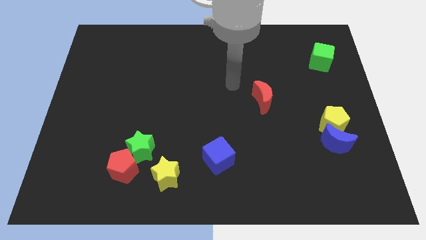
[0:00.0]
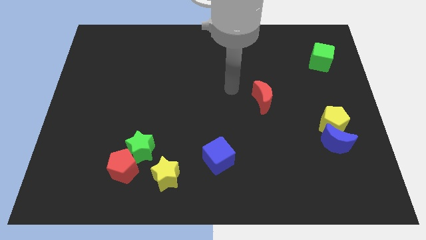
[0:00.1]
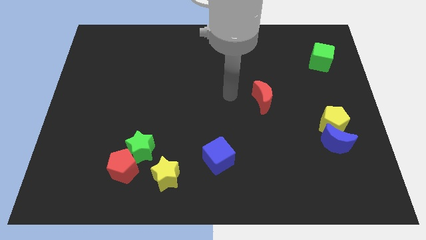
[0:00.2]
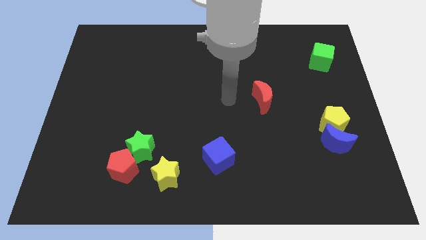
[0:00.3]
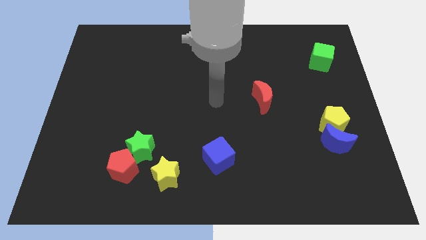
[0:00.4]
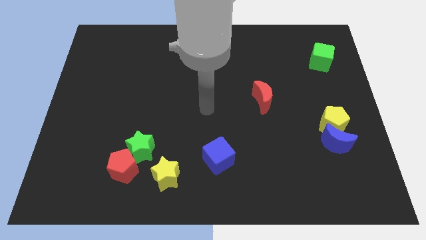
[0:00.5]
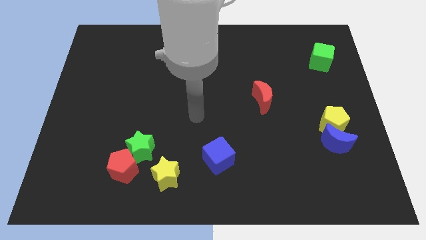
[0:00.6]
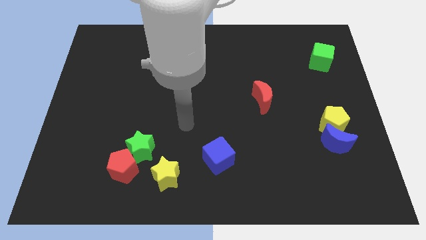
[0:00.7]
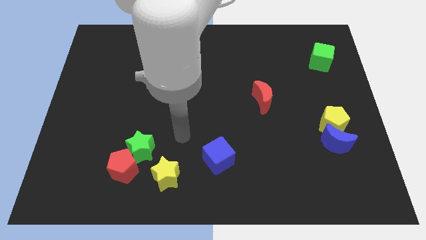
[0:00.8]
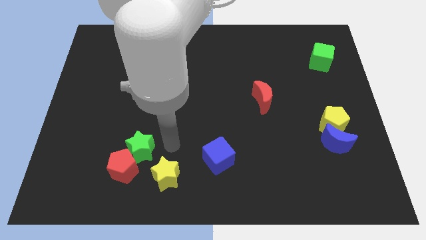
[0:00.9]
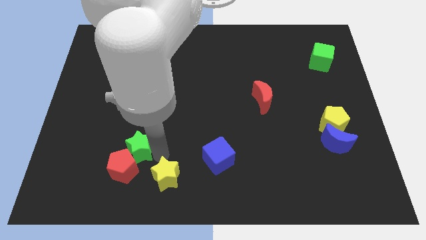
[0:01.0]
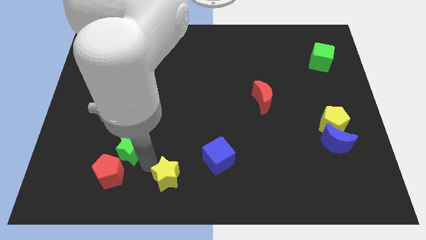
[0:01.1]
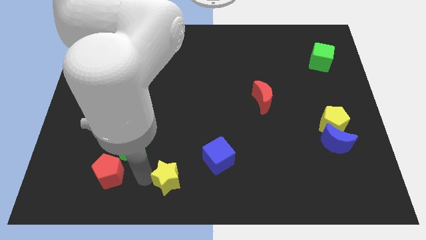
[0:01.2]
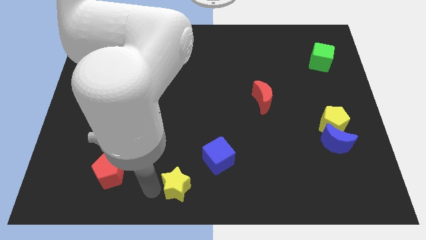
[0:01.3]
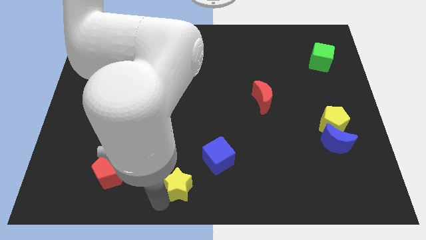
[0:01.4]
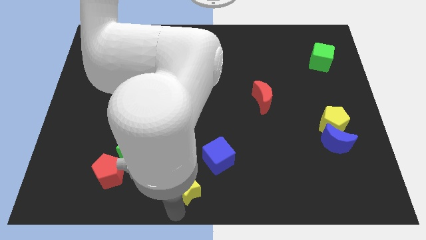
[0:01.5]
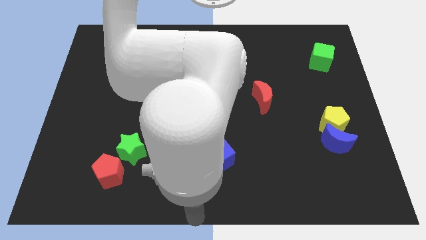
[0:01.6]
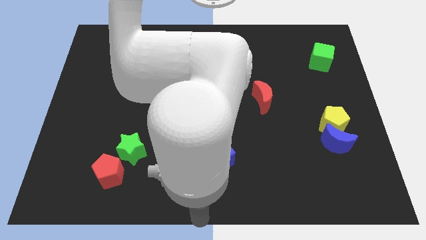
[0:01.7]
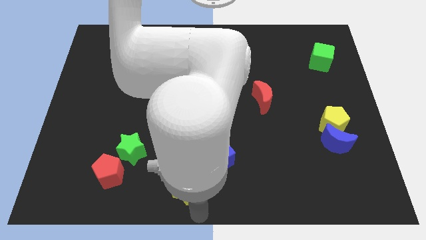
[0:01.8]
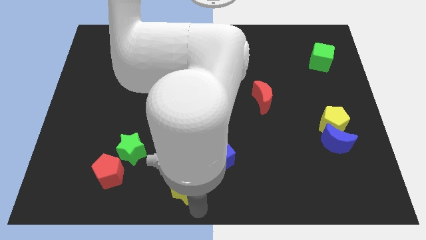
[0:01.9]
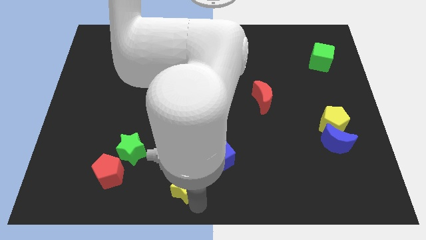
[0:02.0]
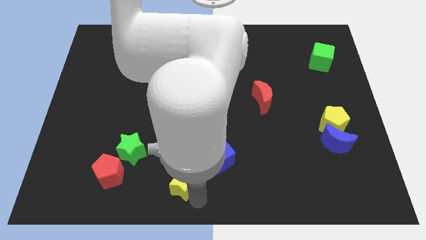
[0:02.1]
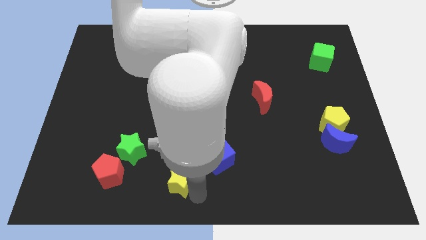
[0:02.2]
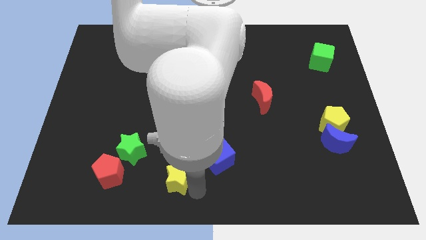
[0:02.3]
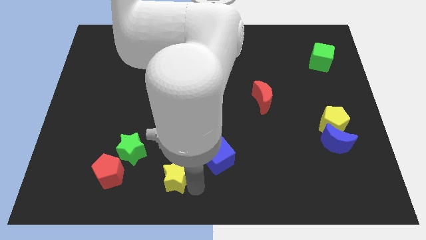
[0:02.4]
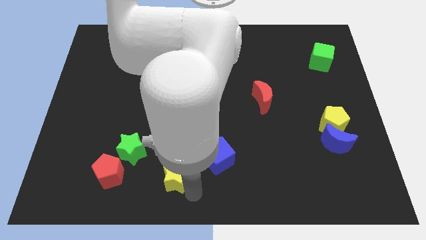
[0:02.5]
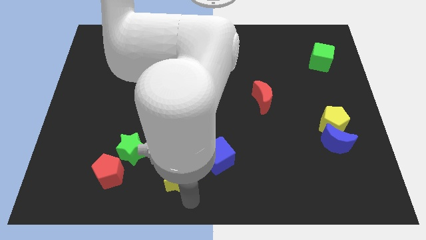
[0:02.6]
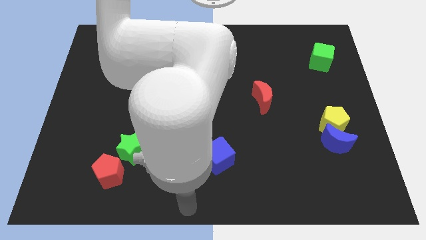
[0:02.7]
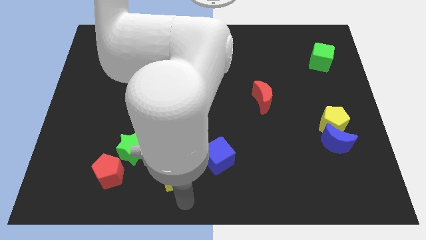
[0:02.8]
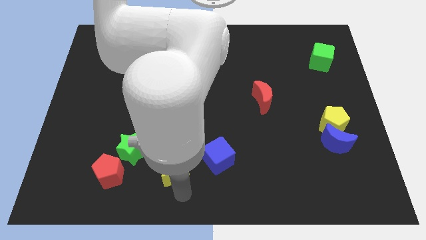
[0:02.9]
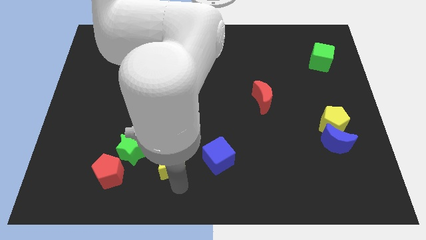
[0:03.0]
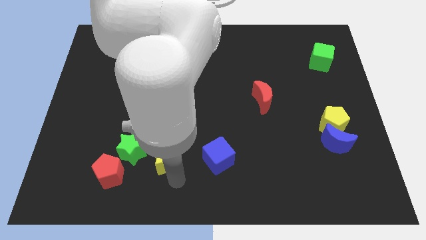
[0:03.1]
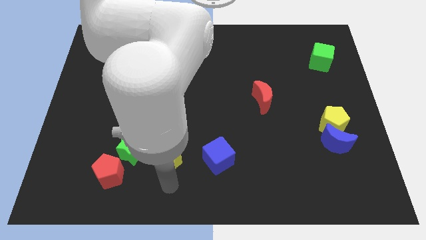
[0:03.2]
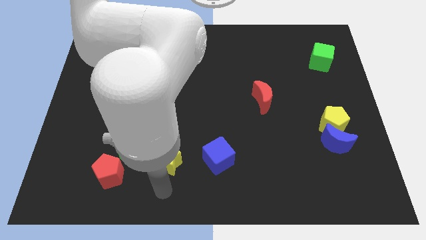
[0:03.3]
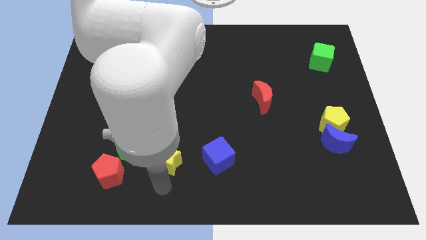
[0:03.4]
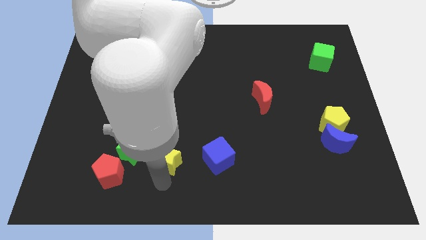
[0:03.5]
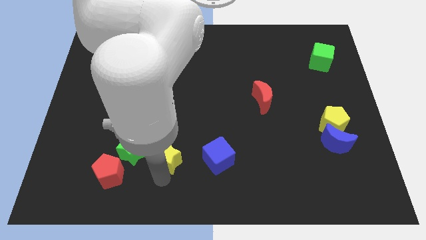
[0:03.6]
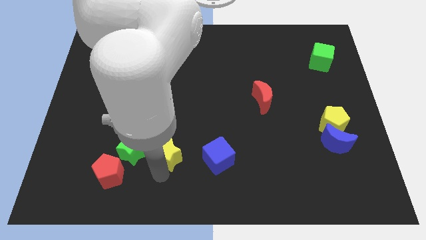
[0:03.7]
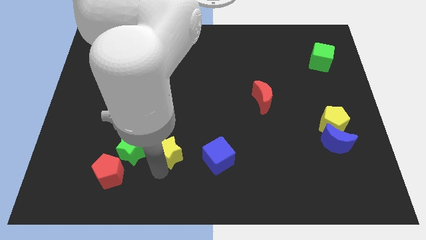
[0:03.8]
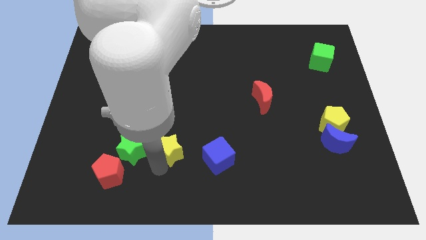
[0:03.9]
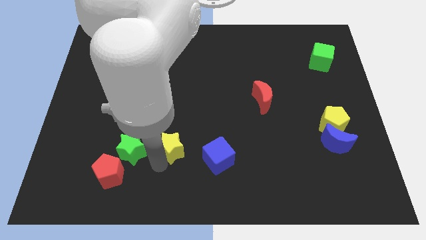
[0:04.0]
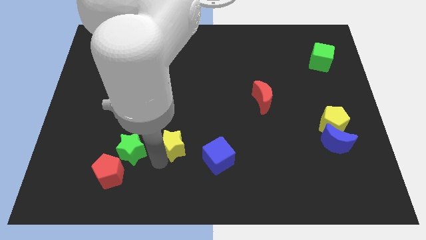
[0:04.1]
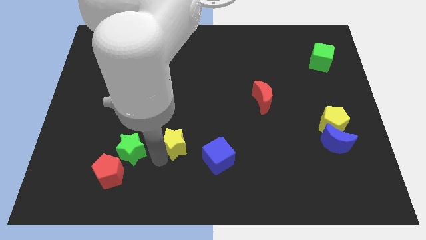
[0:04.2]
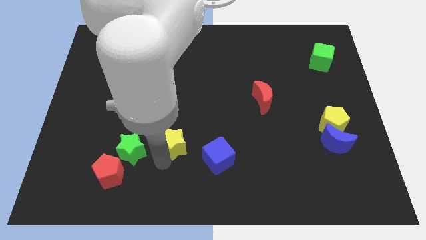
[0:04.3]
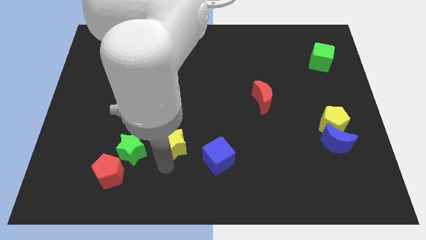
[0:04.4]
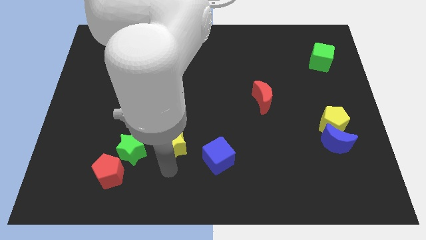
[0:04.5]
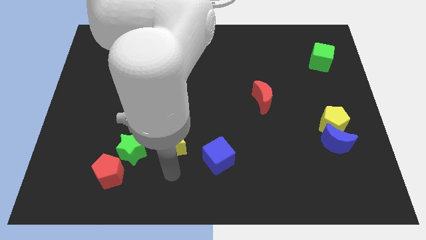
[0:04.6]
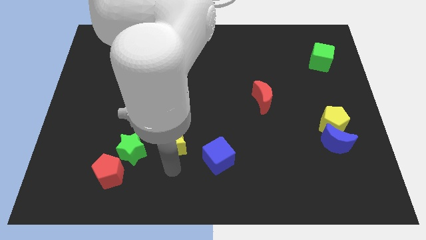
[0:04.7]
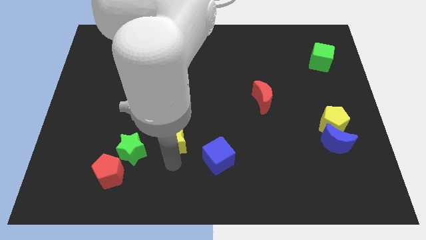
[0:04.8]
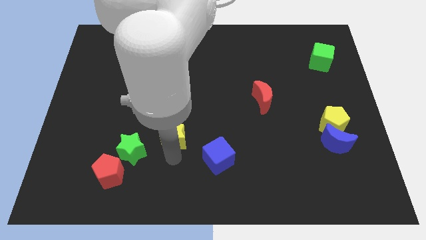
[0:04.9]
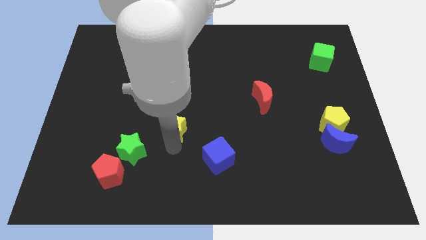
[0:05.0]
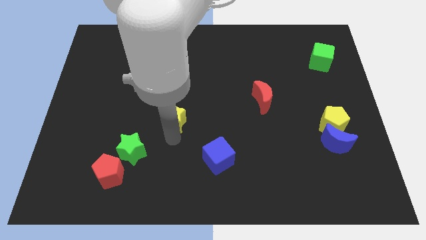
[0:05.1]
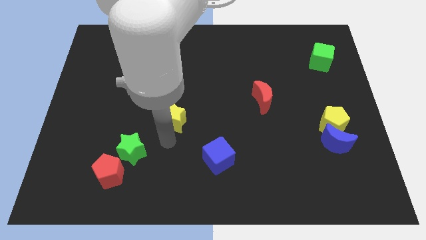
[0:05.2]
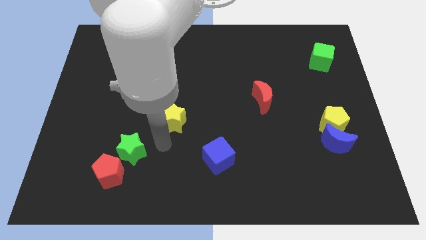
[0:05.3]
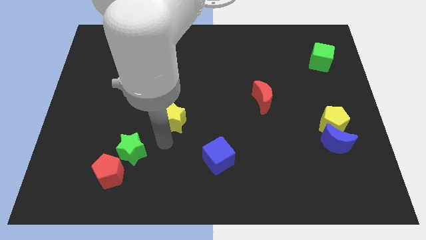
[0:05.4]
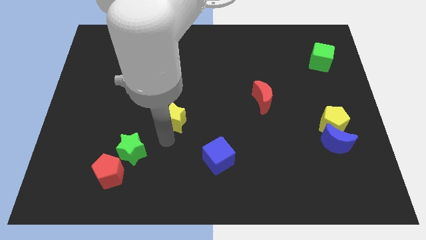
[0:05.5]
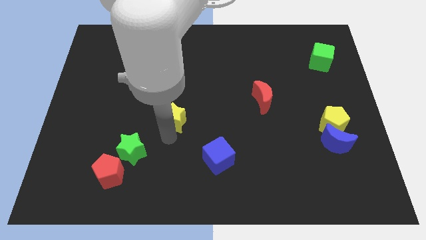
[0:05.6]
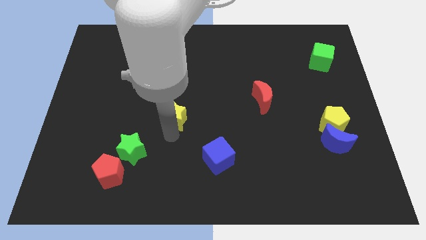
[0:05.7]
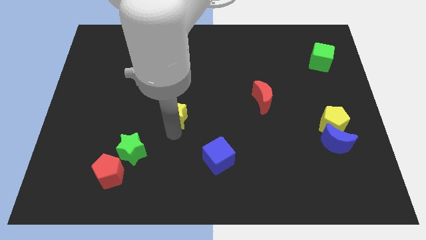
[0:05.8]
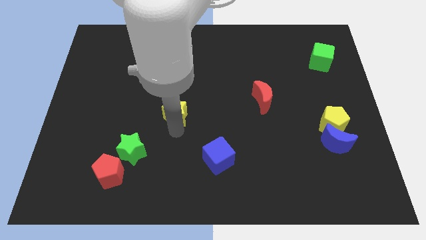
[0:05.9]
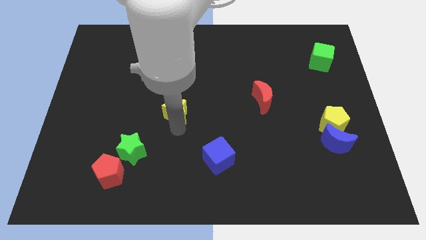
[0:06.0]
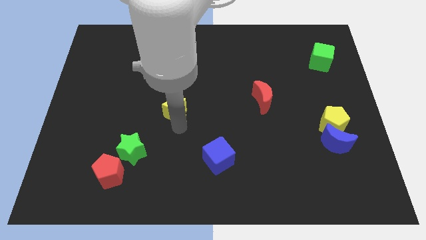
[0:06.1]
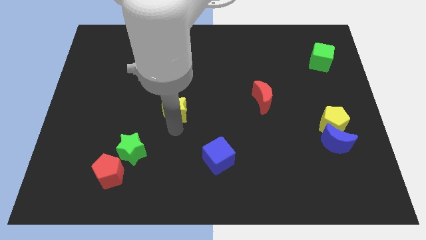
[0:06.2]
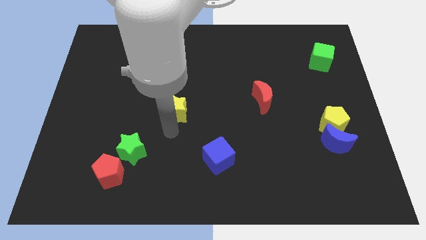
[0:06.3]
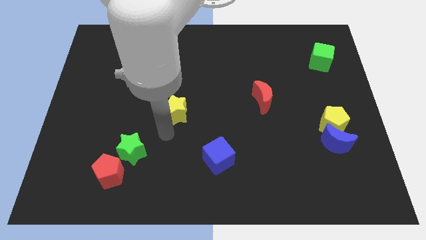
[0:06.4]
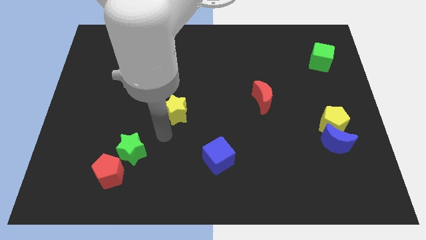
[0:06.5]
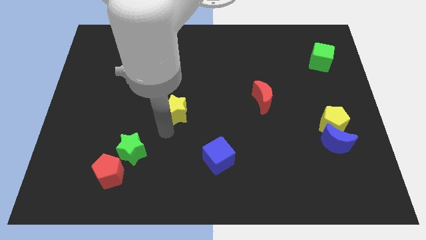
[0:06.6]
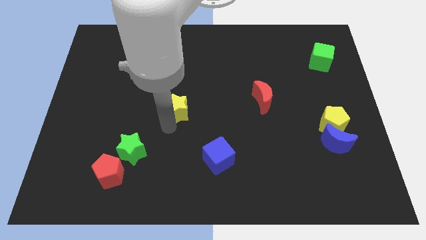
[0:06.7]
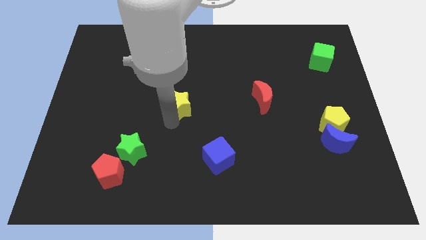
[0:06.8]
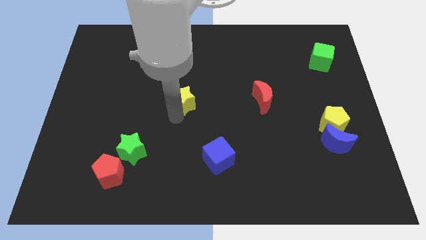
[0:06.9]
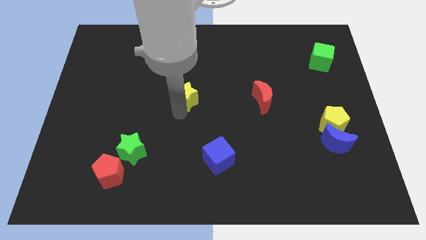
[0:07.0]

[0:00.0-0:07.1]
push the yellow star upwards

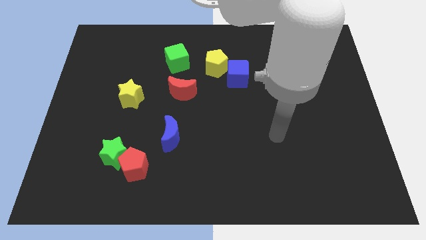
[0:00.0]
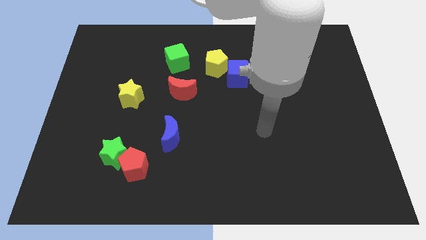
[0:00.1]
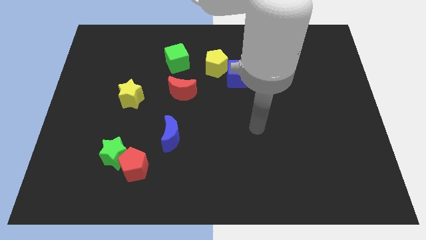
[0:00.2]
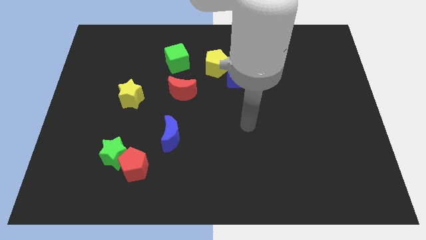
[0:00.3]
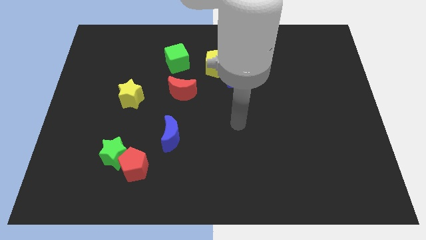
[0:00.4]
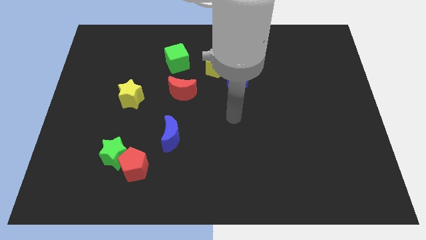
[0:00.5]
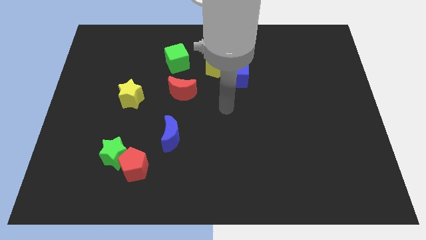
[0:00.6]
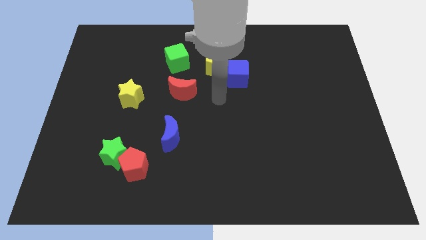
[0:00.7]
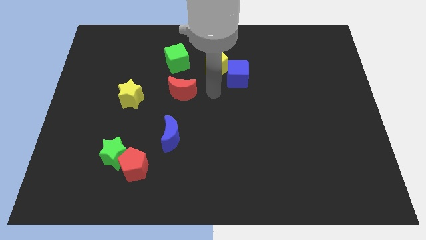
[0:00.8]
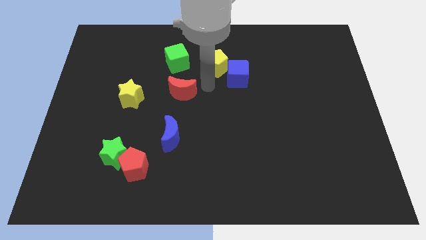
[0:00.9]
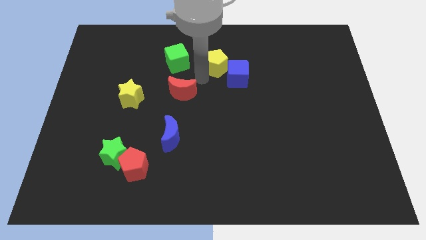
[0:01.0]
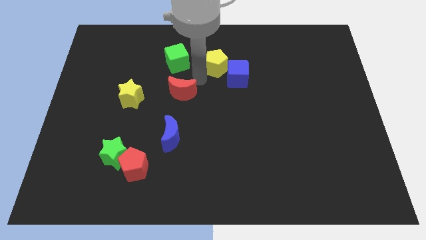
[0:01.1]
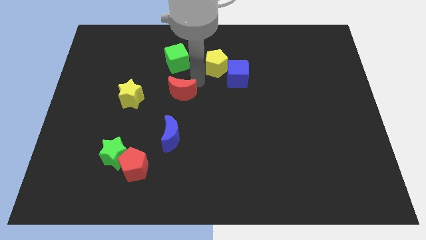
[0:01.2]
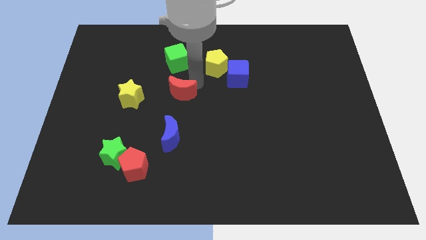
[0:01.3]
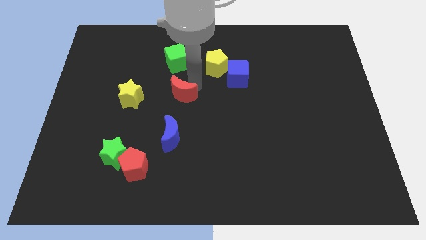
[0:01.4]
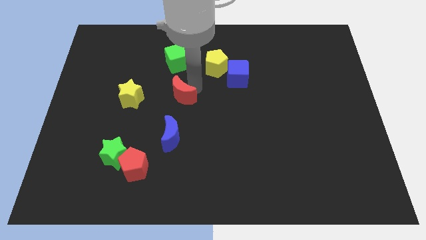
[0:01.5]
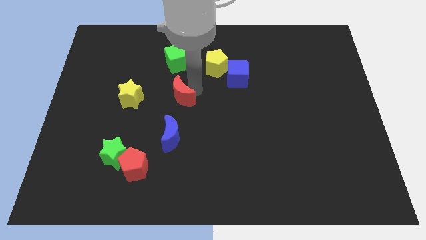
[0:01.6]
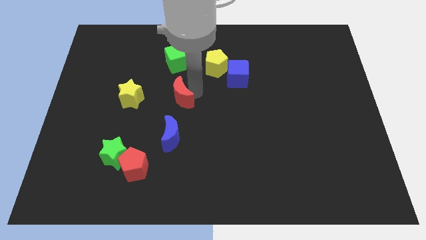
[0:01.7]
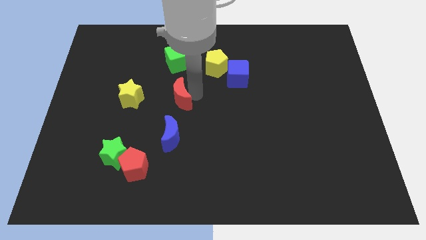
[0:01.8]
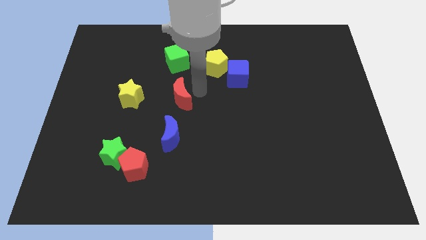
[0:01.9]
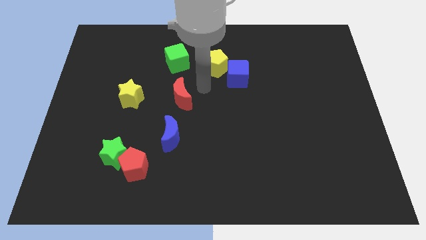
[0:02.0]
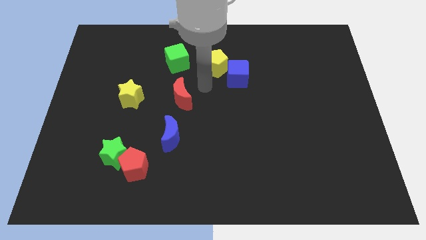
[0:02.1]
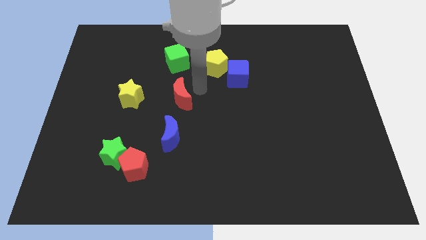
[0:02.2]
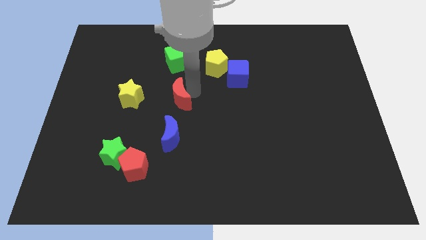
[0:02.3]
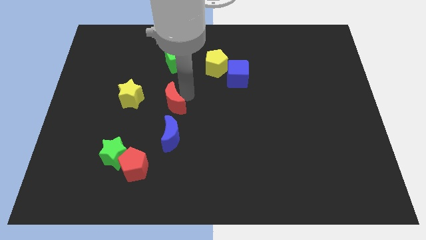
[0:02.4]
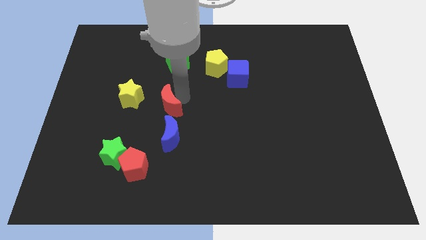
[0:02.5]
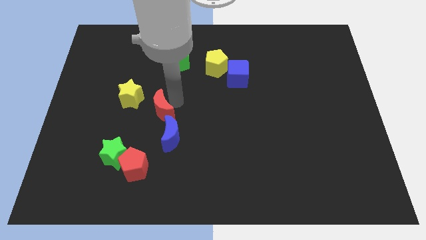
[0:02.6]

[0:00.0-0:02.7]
slide the red moon slightly down and to the left
